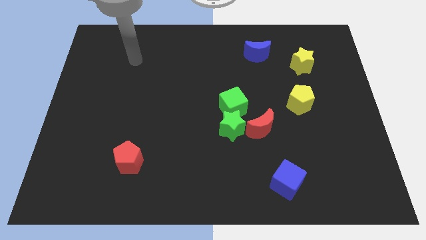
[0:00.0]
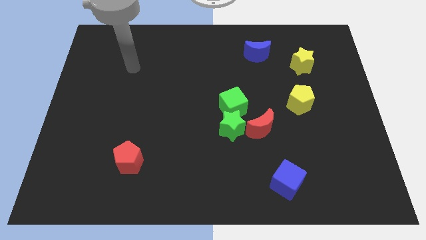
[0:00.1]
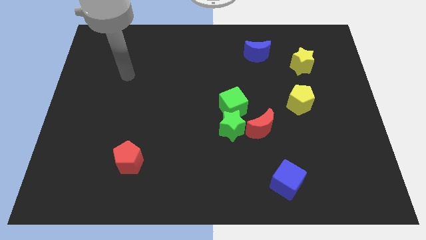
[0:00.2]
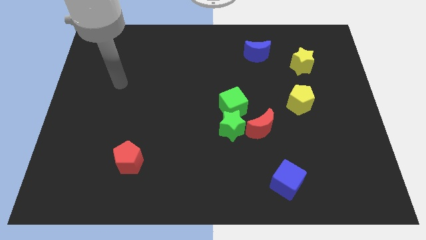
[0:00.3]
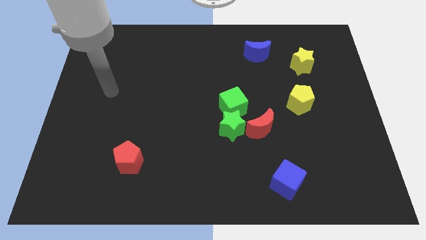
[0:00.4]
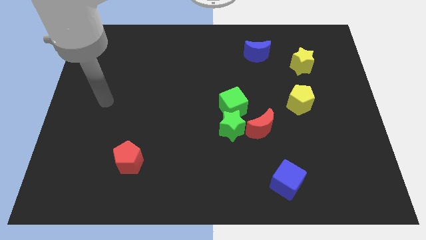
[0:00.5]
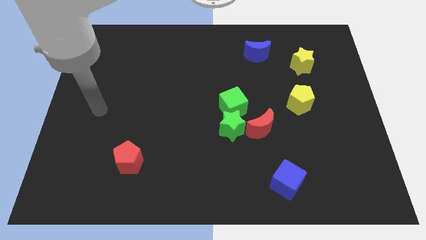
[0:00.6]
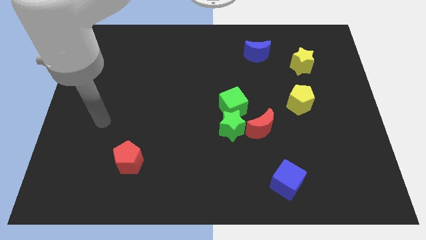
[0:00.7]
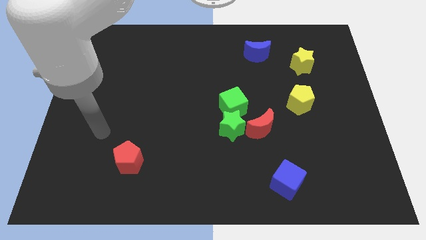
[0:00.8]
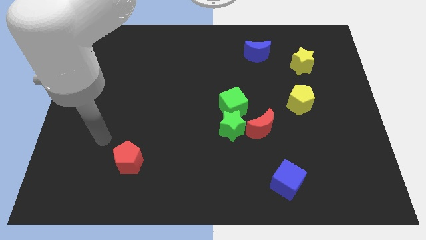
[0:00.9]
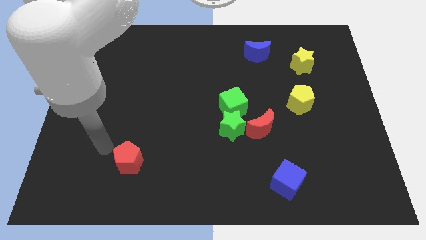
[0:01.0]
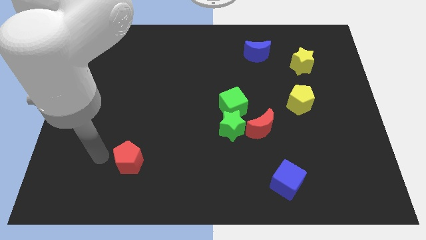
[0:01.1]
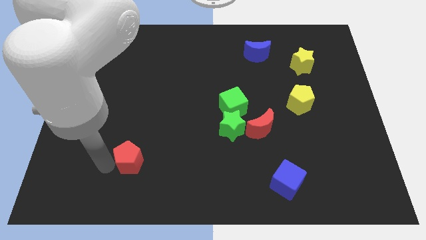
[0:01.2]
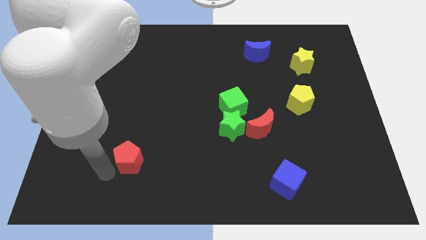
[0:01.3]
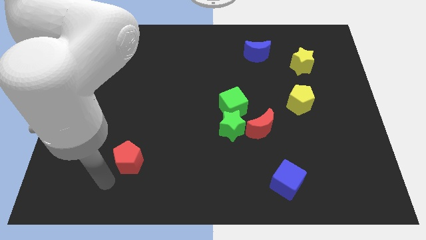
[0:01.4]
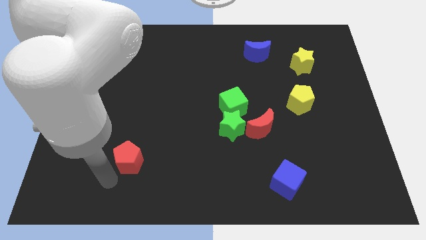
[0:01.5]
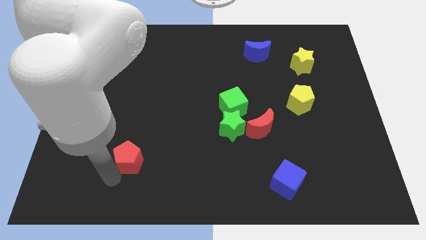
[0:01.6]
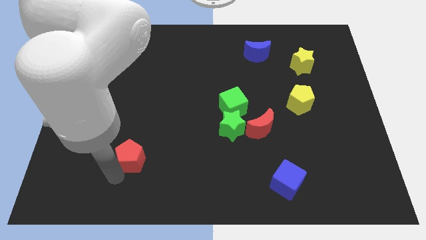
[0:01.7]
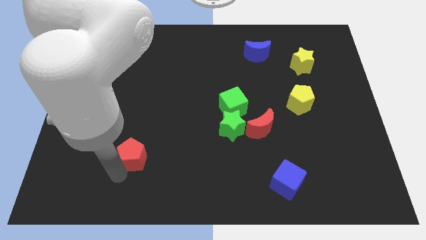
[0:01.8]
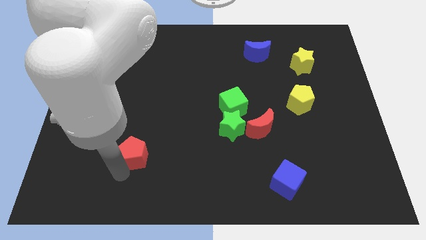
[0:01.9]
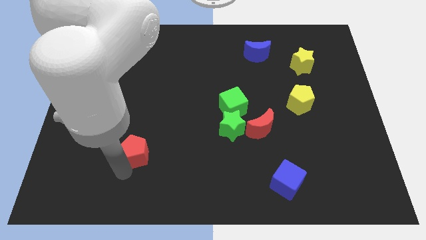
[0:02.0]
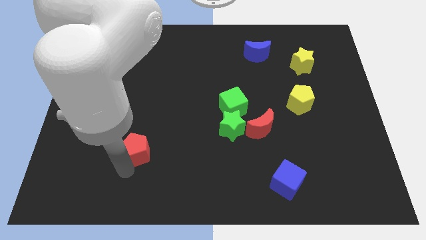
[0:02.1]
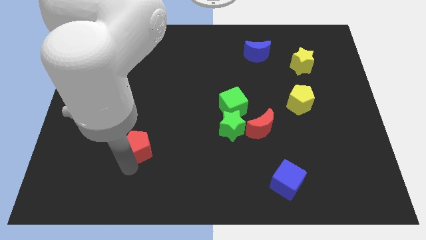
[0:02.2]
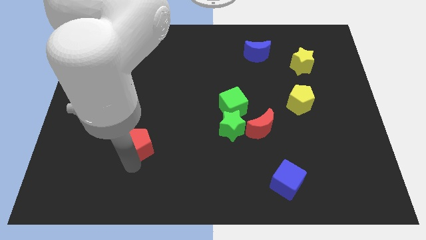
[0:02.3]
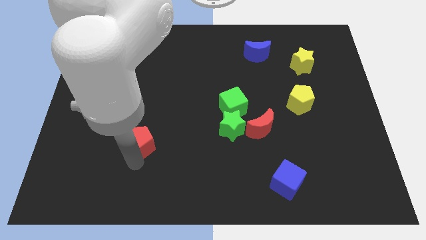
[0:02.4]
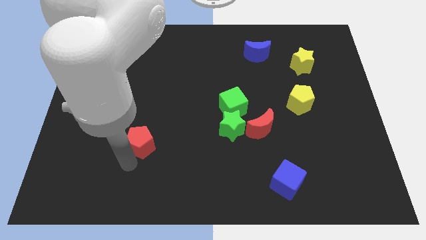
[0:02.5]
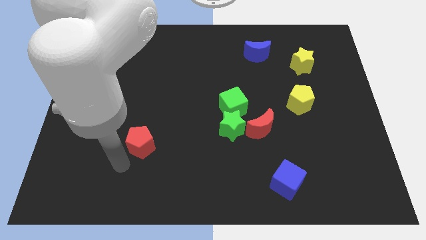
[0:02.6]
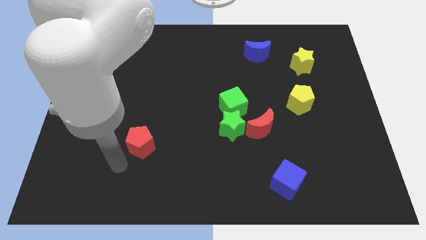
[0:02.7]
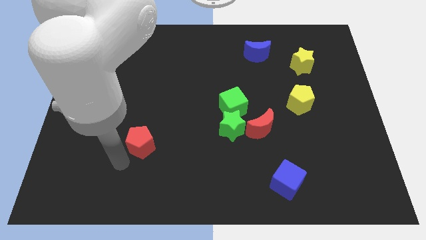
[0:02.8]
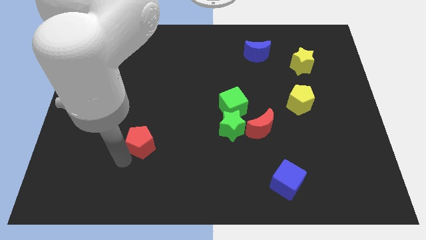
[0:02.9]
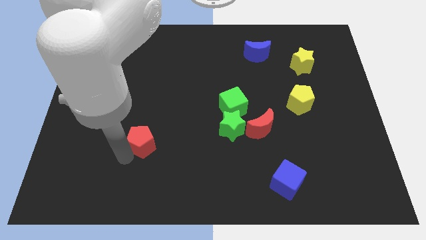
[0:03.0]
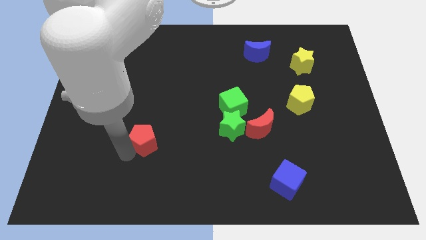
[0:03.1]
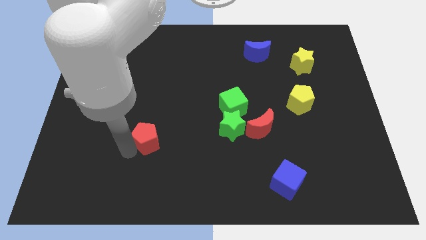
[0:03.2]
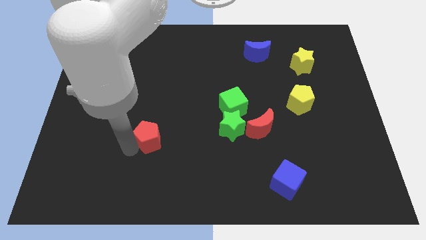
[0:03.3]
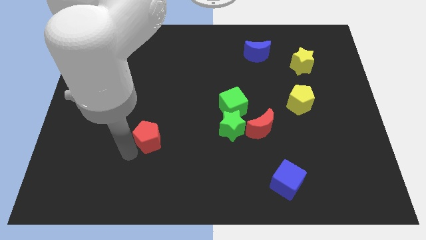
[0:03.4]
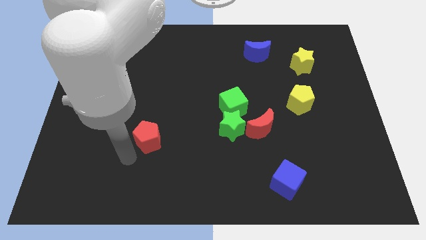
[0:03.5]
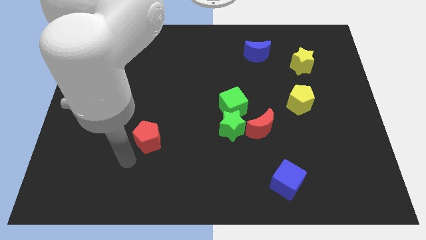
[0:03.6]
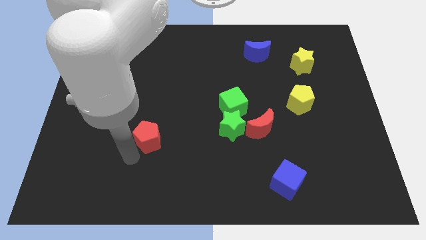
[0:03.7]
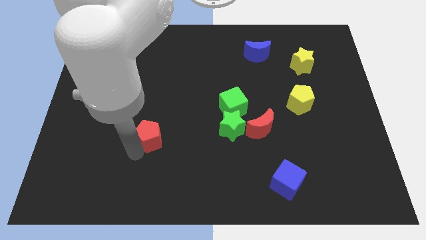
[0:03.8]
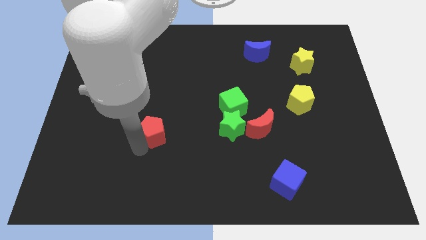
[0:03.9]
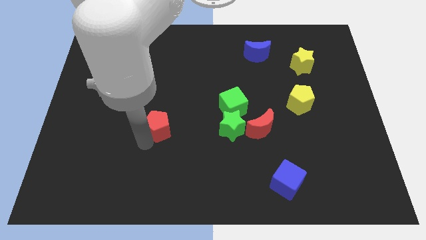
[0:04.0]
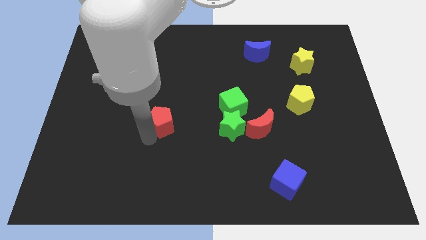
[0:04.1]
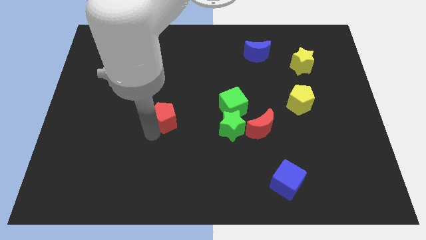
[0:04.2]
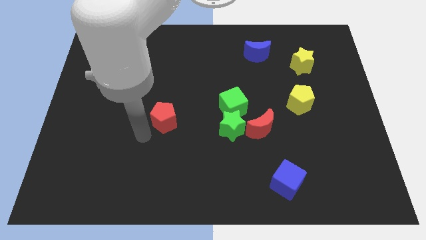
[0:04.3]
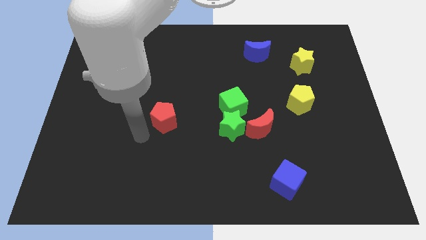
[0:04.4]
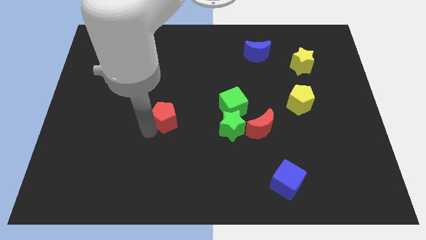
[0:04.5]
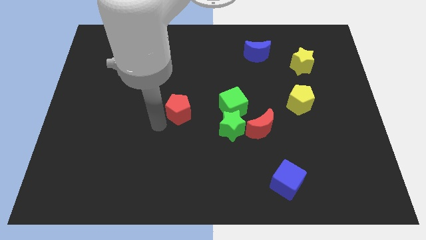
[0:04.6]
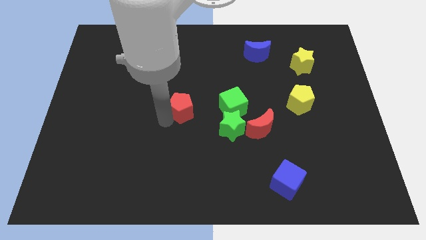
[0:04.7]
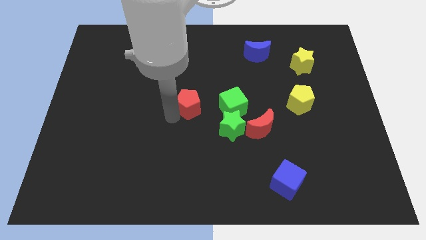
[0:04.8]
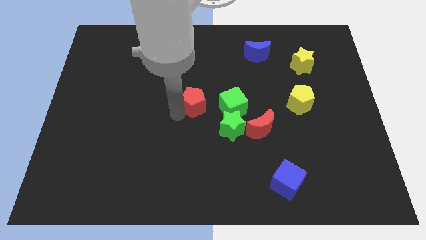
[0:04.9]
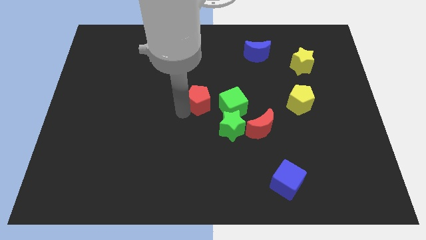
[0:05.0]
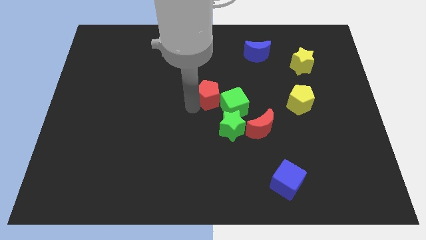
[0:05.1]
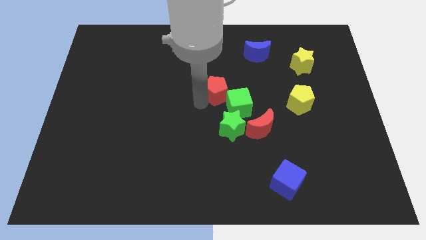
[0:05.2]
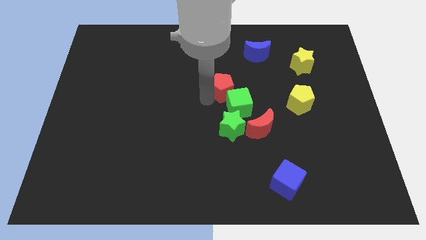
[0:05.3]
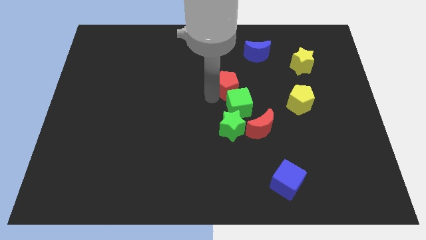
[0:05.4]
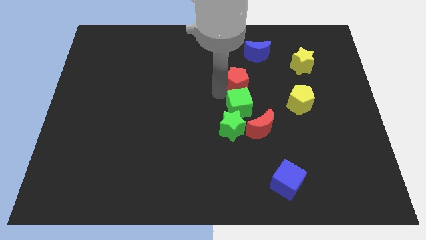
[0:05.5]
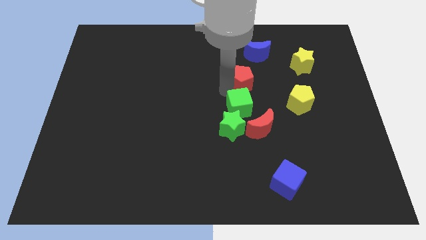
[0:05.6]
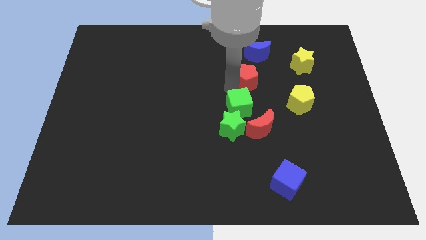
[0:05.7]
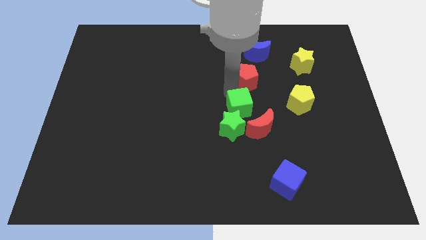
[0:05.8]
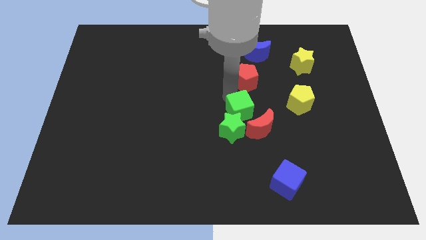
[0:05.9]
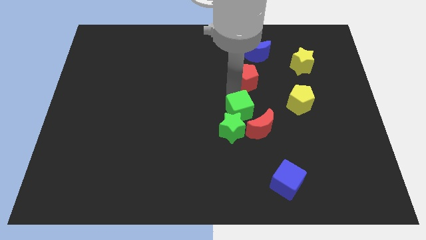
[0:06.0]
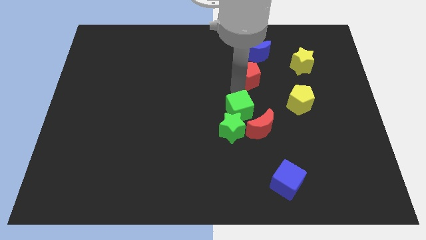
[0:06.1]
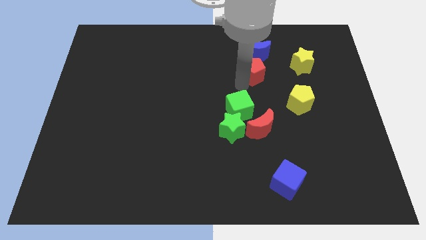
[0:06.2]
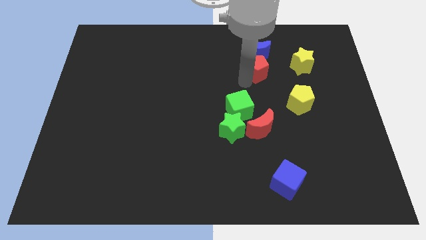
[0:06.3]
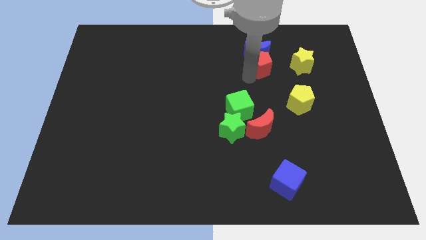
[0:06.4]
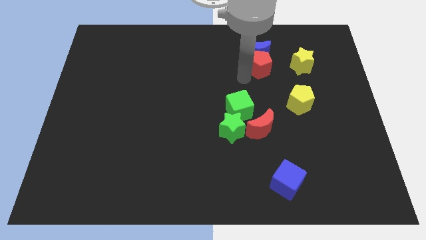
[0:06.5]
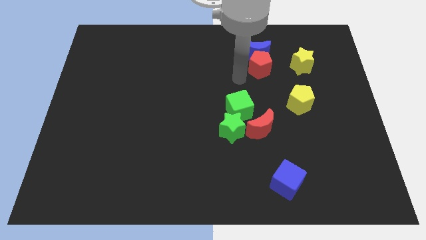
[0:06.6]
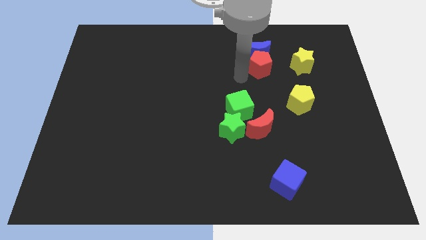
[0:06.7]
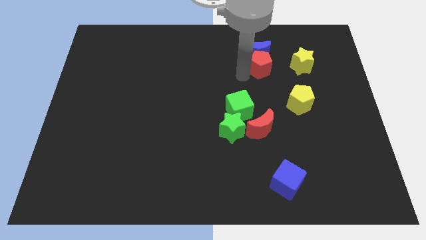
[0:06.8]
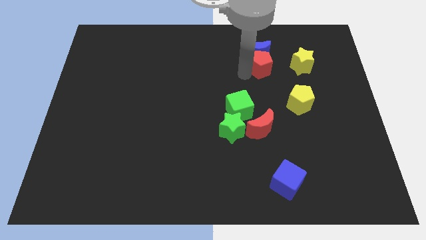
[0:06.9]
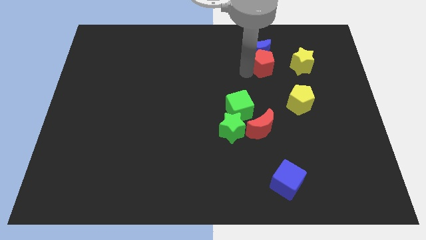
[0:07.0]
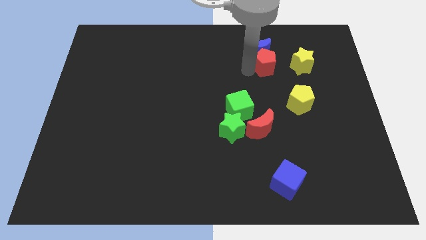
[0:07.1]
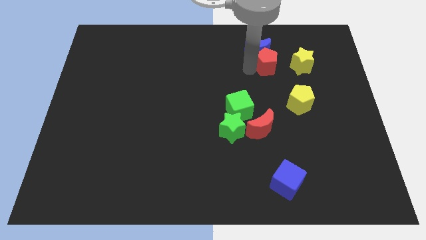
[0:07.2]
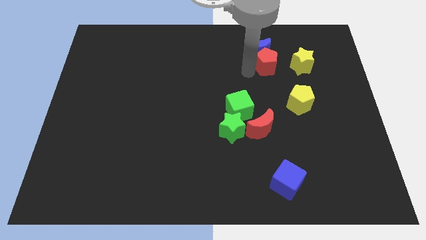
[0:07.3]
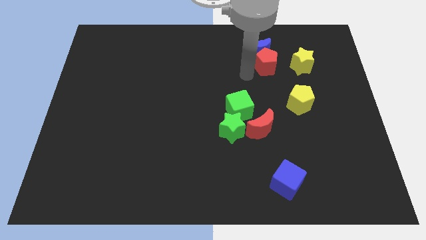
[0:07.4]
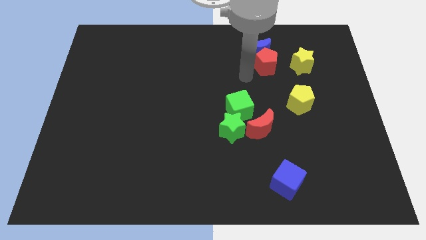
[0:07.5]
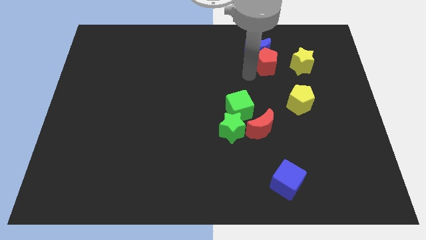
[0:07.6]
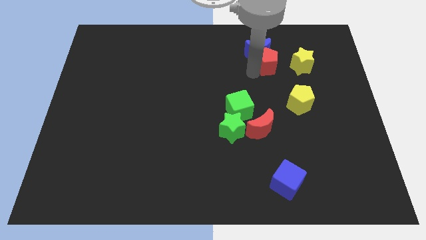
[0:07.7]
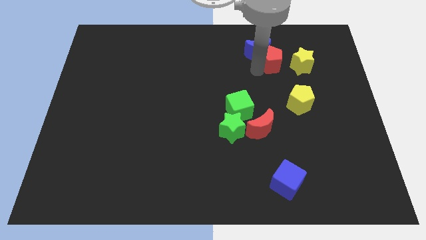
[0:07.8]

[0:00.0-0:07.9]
move the red pentagon to the right of the blue moon
